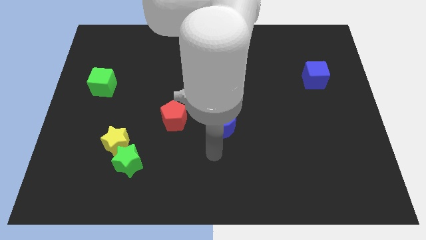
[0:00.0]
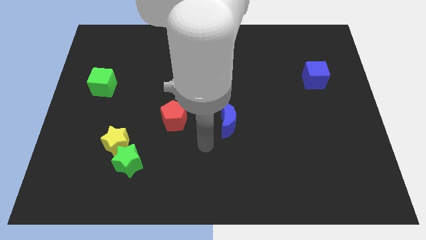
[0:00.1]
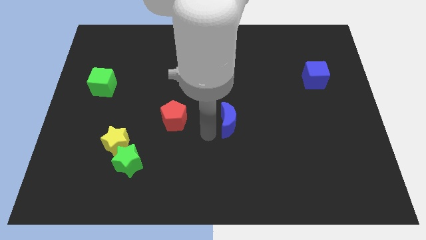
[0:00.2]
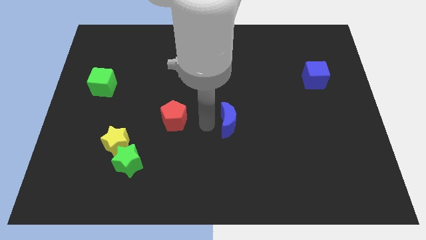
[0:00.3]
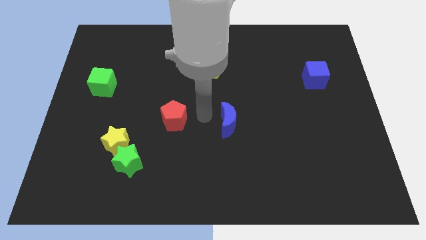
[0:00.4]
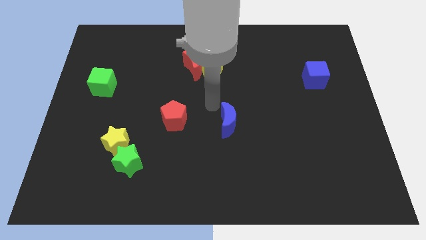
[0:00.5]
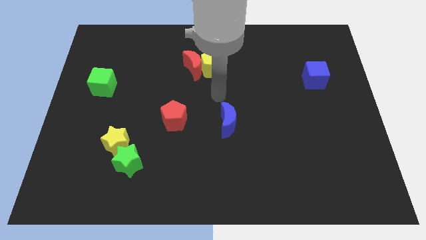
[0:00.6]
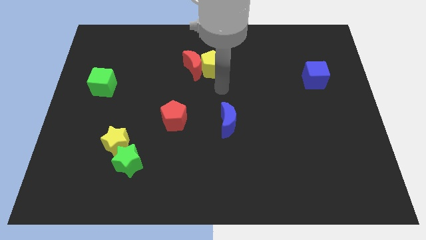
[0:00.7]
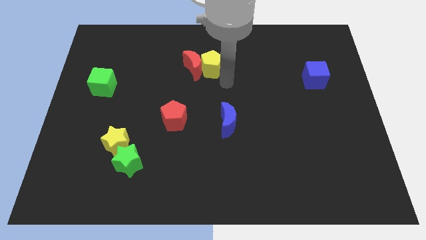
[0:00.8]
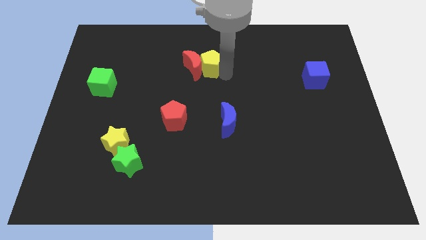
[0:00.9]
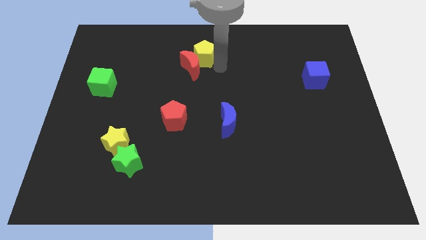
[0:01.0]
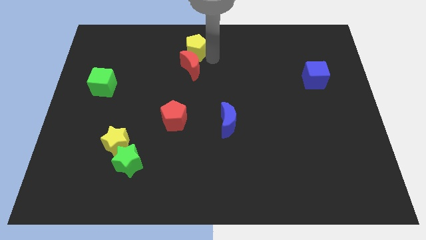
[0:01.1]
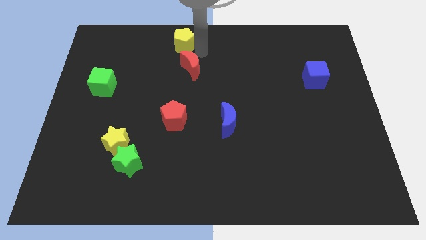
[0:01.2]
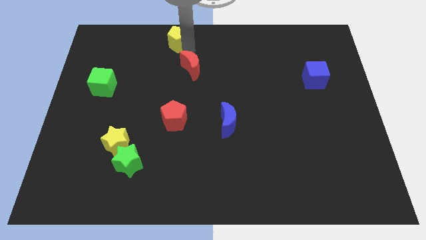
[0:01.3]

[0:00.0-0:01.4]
pull the red moon apart from the yellow pentagon

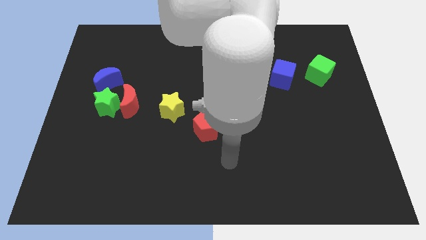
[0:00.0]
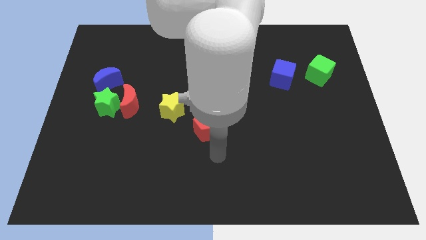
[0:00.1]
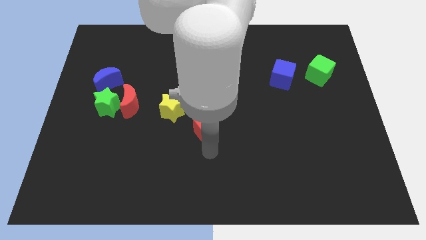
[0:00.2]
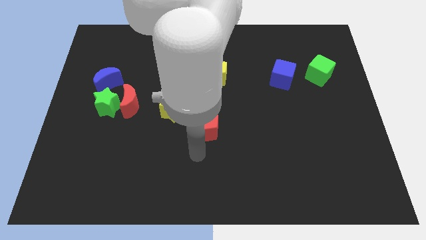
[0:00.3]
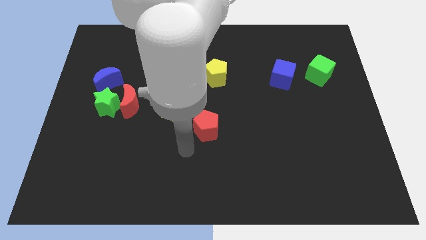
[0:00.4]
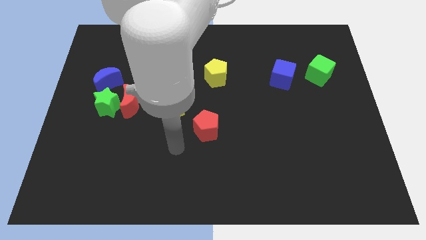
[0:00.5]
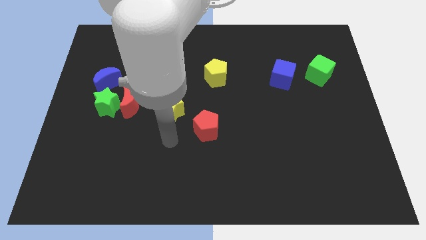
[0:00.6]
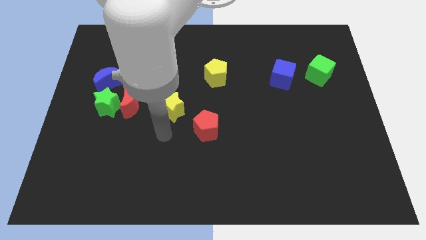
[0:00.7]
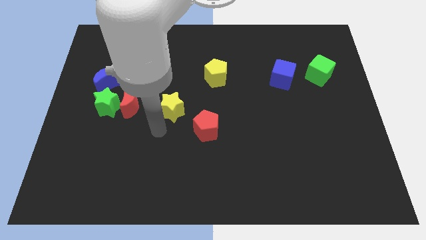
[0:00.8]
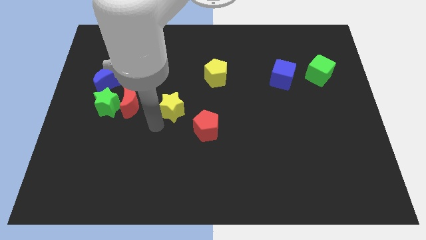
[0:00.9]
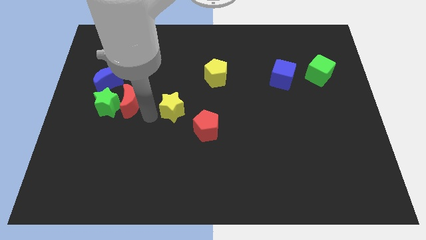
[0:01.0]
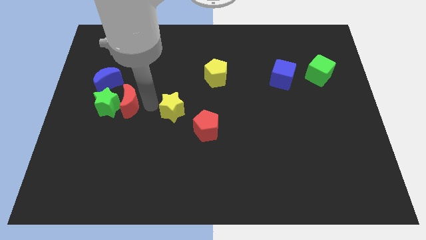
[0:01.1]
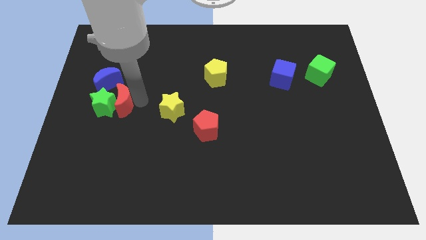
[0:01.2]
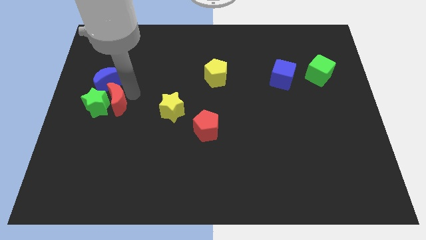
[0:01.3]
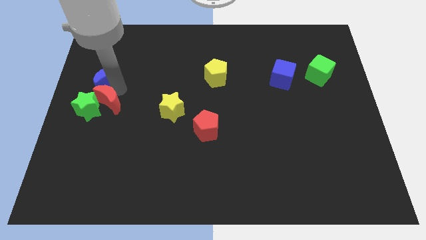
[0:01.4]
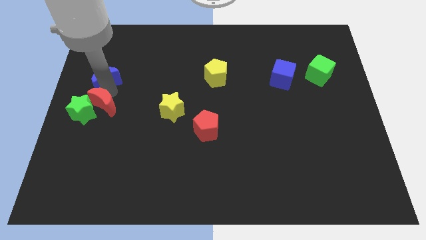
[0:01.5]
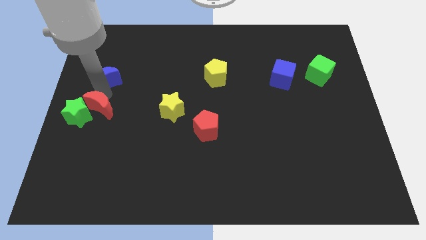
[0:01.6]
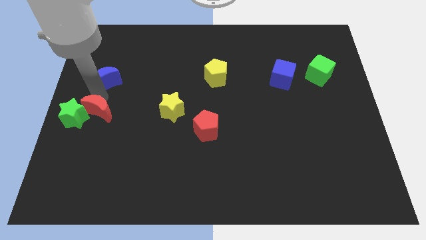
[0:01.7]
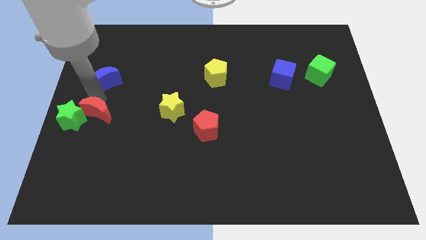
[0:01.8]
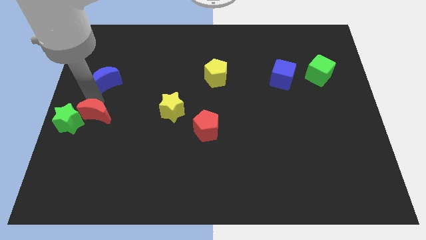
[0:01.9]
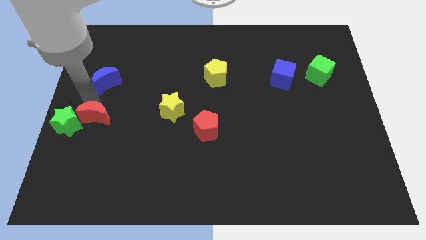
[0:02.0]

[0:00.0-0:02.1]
separate the green star from the red moon and blue moon

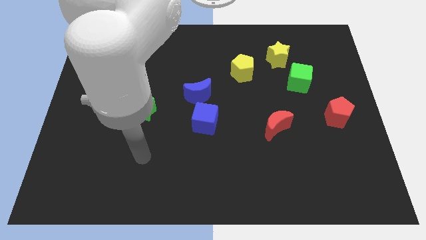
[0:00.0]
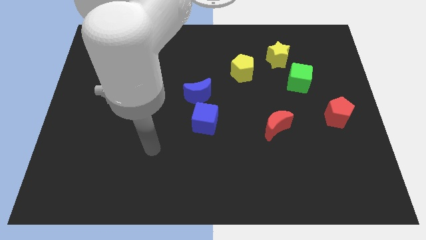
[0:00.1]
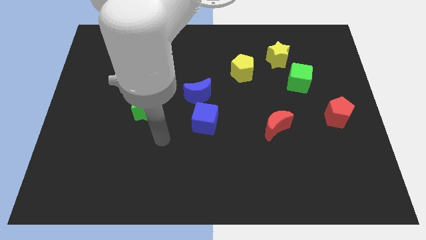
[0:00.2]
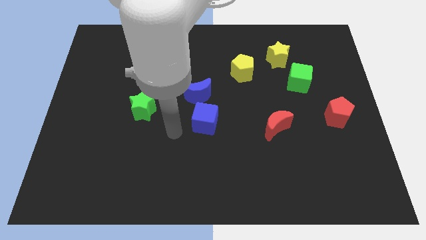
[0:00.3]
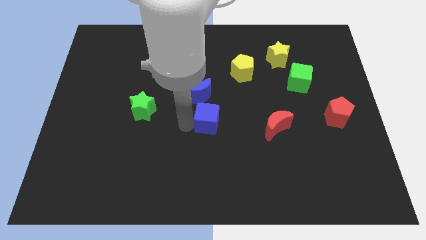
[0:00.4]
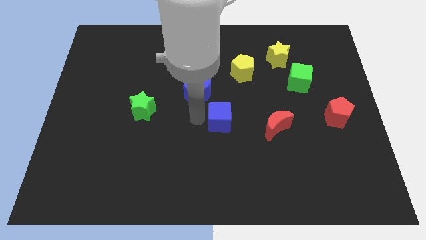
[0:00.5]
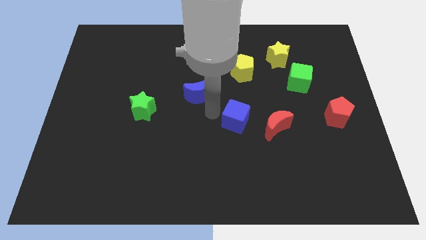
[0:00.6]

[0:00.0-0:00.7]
pull the blue moon apart from the blue cube

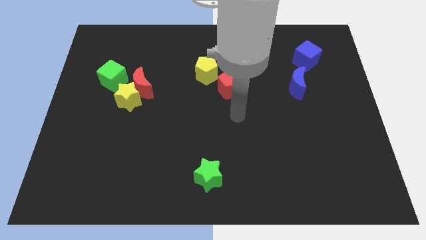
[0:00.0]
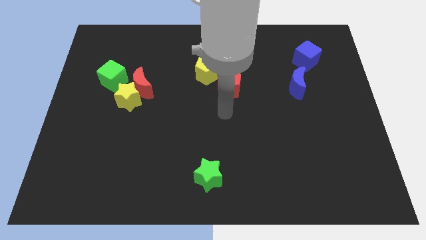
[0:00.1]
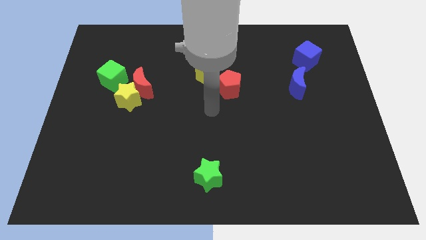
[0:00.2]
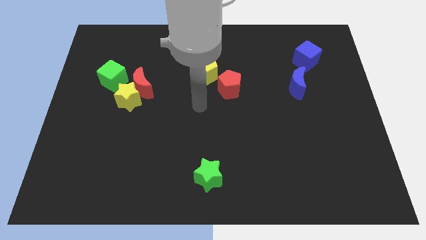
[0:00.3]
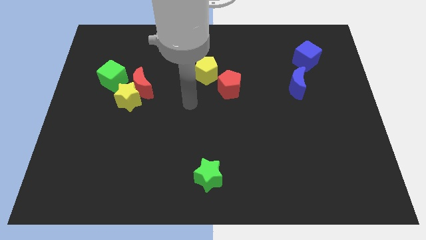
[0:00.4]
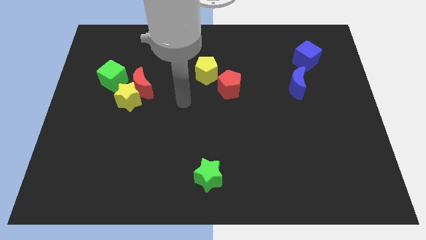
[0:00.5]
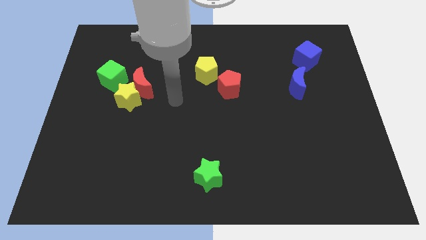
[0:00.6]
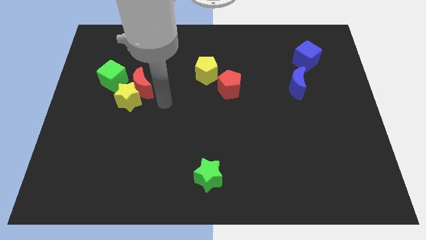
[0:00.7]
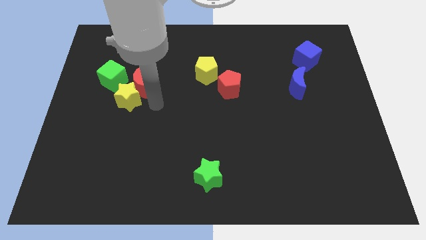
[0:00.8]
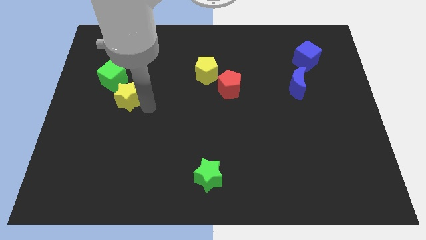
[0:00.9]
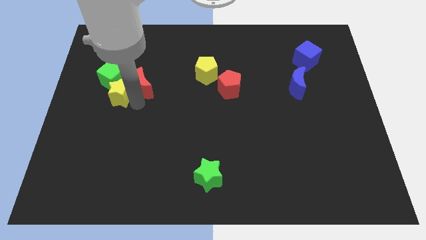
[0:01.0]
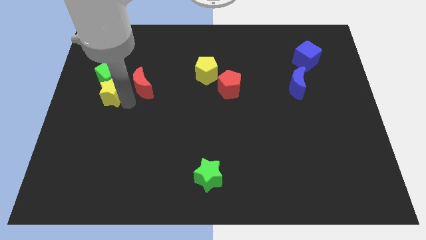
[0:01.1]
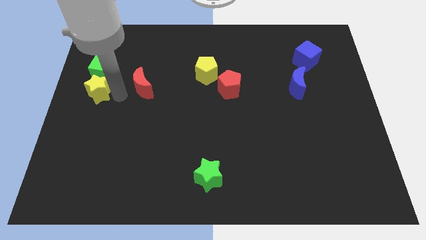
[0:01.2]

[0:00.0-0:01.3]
pull the red moon apart from the yellow star and green cube

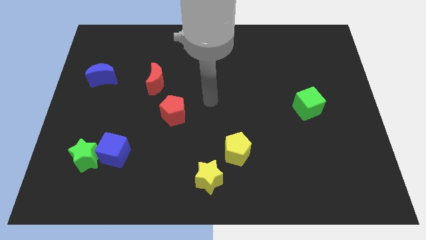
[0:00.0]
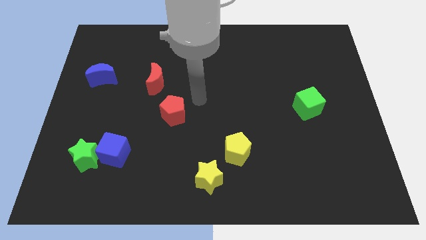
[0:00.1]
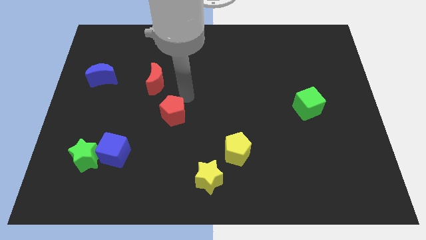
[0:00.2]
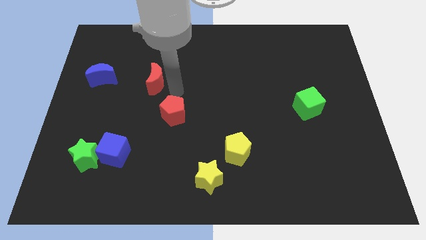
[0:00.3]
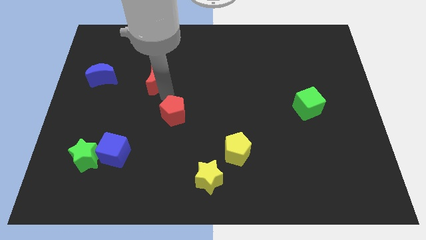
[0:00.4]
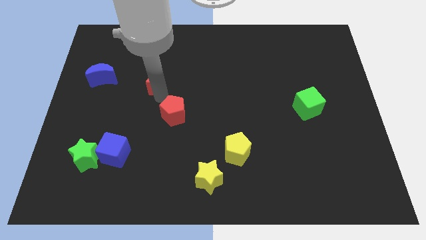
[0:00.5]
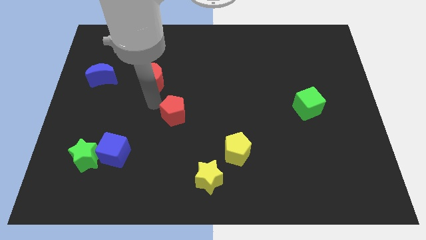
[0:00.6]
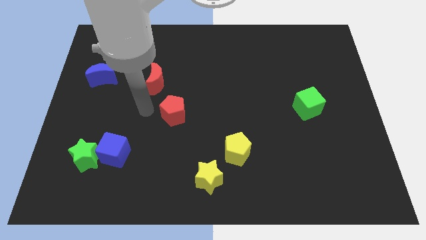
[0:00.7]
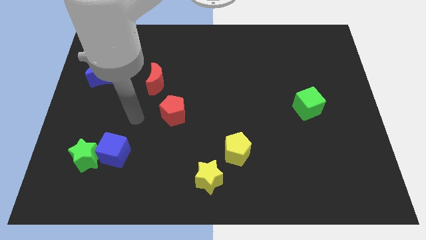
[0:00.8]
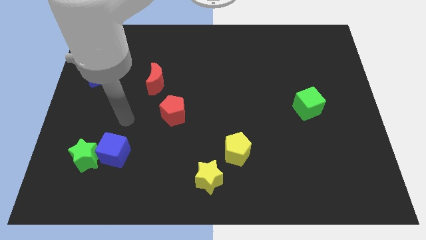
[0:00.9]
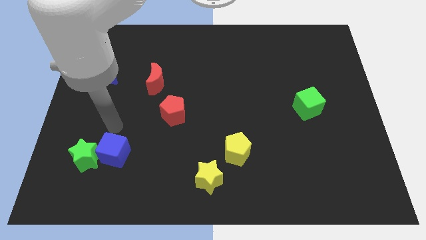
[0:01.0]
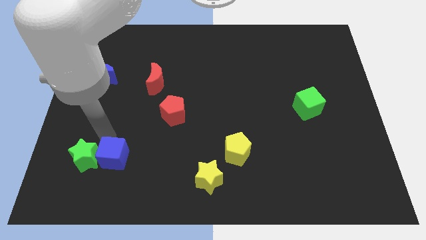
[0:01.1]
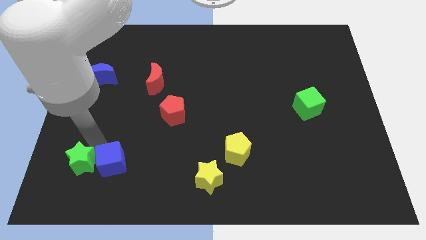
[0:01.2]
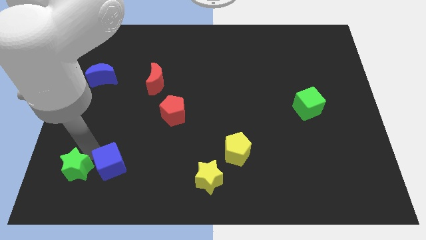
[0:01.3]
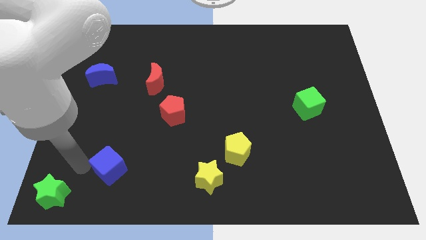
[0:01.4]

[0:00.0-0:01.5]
pull the blue cube apart from the green star

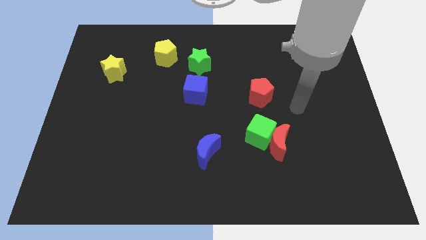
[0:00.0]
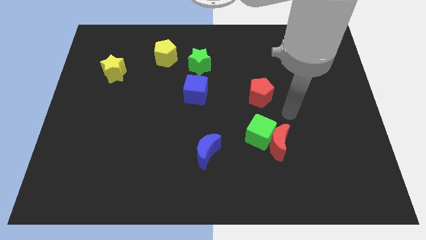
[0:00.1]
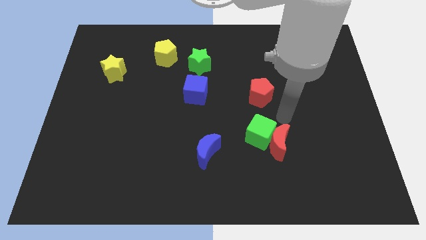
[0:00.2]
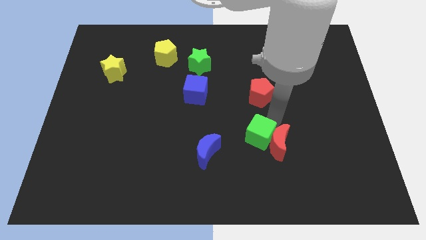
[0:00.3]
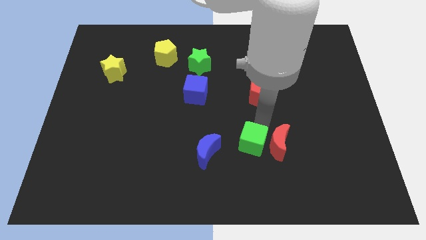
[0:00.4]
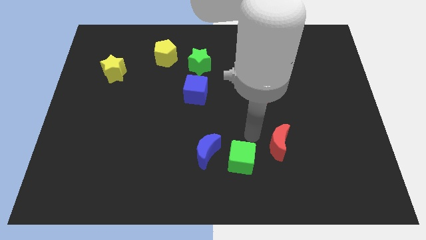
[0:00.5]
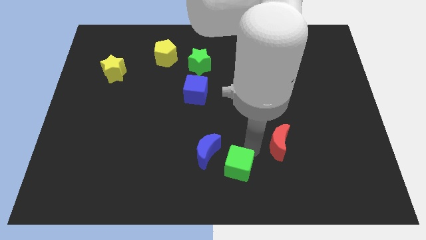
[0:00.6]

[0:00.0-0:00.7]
move the red moon away from the green cube

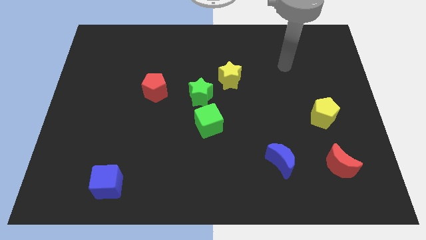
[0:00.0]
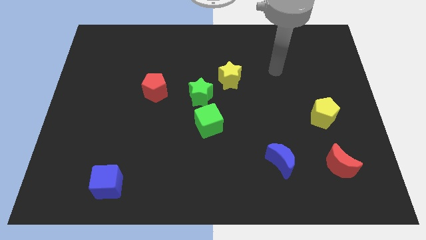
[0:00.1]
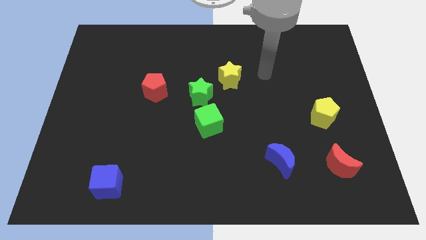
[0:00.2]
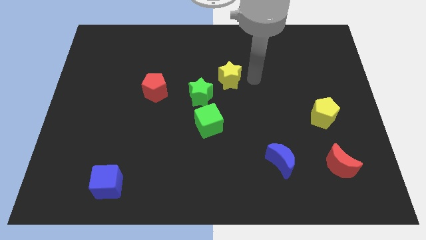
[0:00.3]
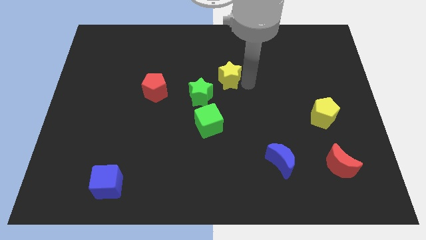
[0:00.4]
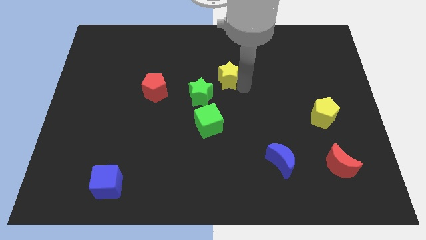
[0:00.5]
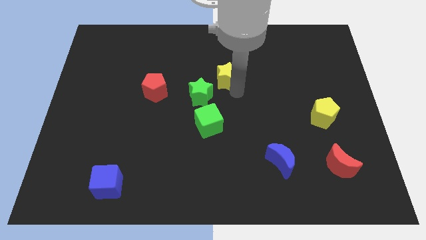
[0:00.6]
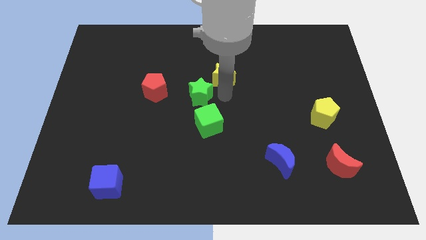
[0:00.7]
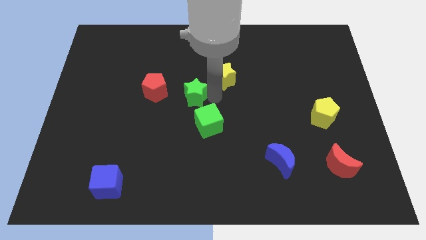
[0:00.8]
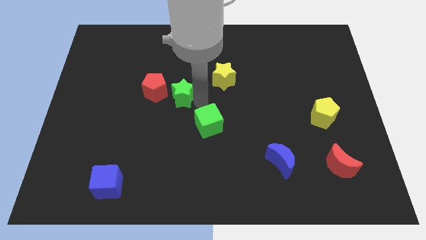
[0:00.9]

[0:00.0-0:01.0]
move the green cube away from the green star

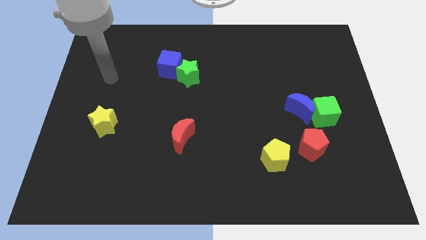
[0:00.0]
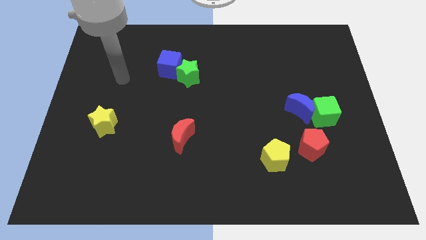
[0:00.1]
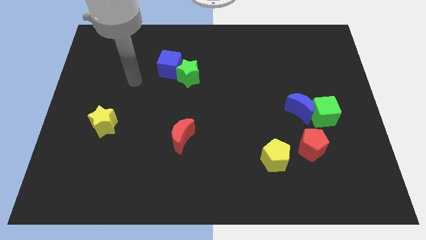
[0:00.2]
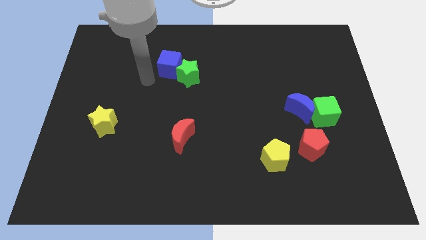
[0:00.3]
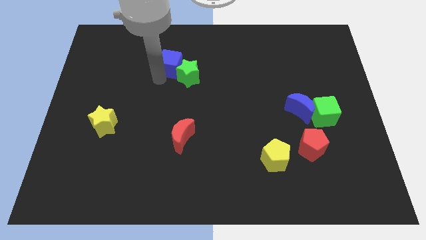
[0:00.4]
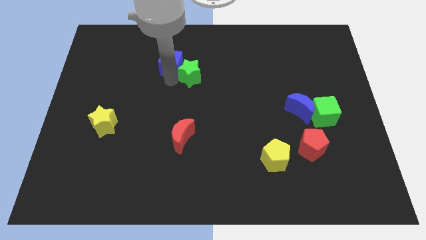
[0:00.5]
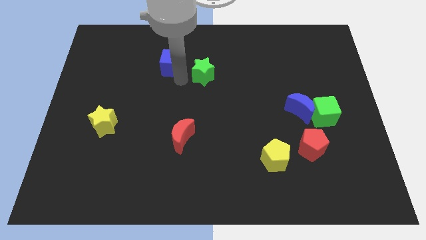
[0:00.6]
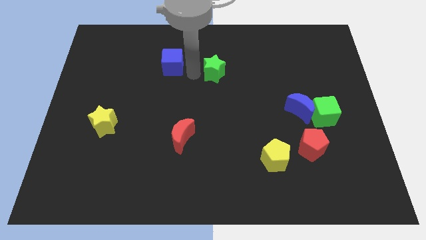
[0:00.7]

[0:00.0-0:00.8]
move the blue cube away from the green star
